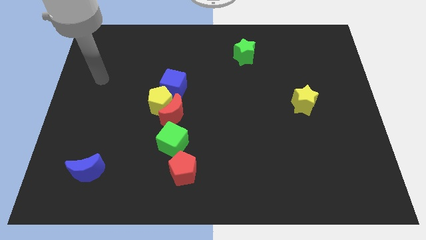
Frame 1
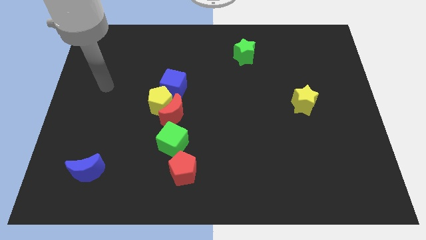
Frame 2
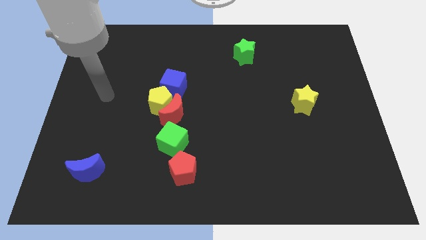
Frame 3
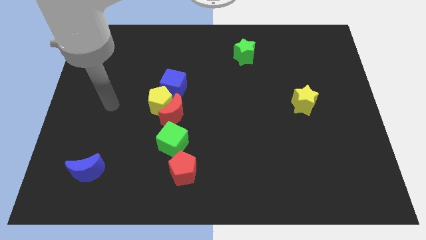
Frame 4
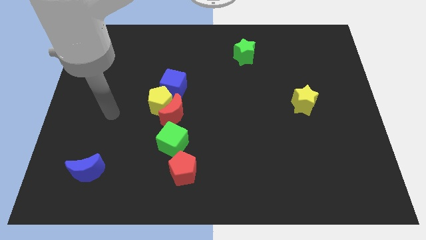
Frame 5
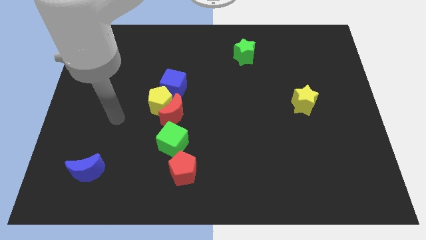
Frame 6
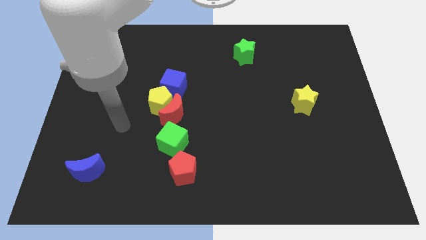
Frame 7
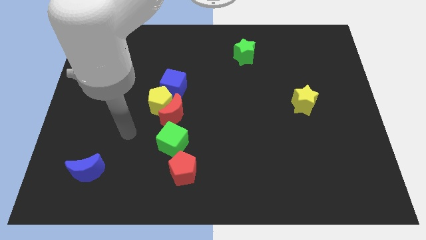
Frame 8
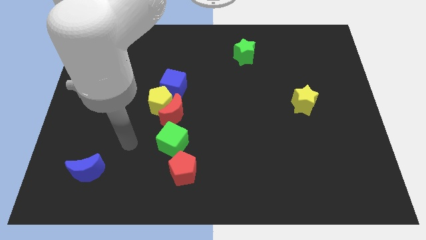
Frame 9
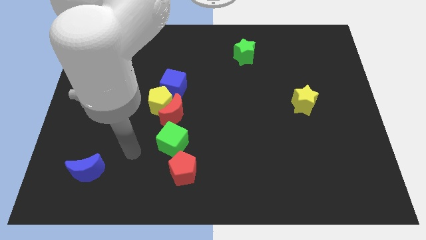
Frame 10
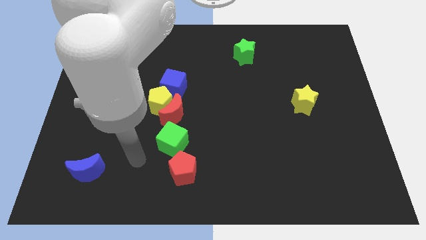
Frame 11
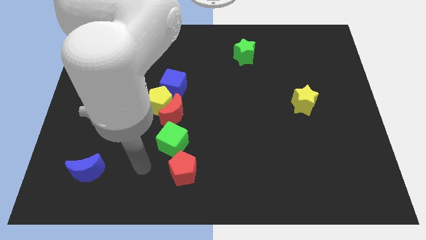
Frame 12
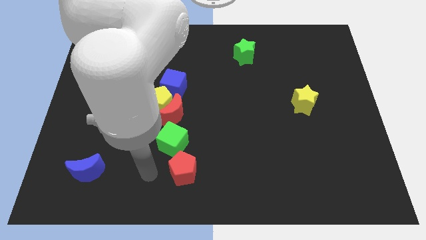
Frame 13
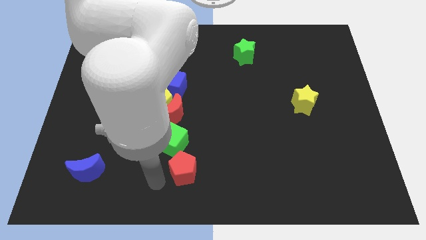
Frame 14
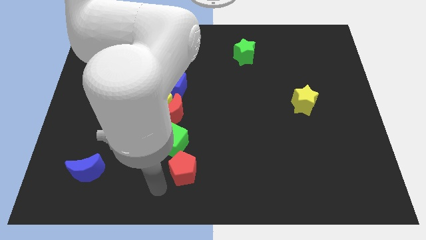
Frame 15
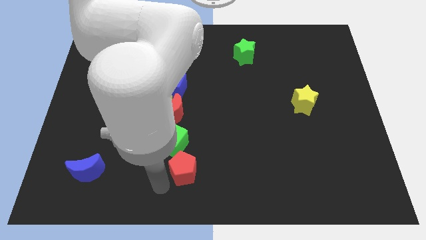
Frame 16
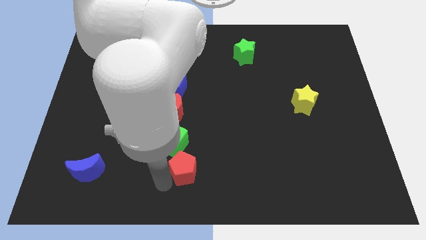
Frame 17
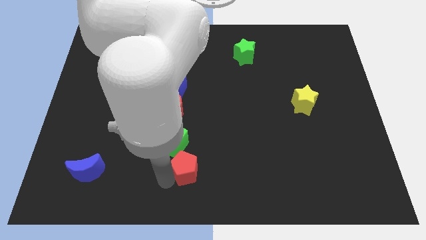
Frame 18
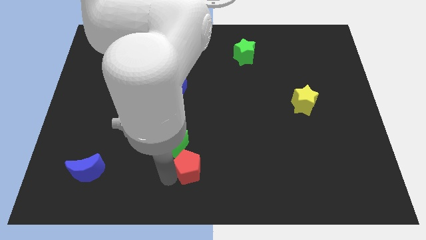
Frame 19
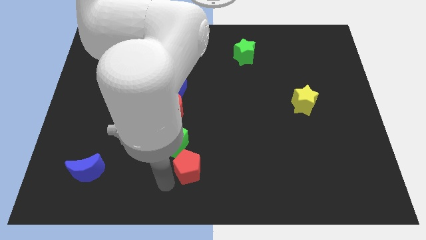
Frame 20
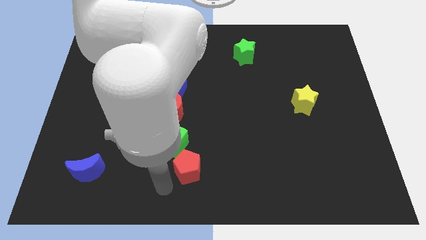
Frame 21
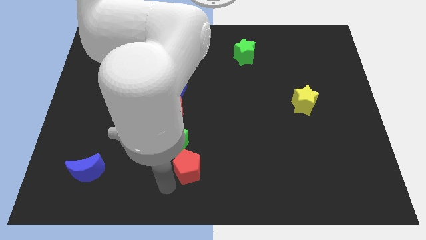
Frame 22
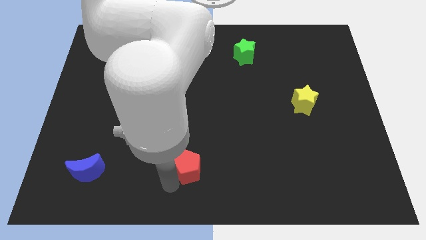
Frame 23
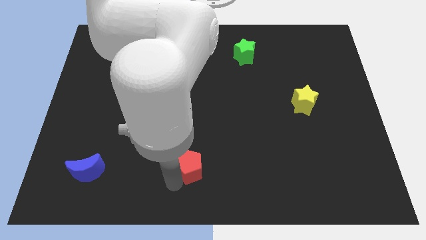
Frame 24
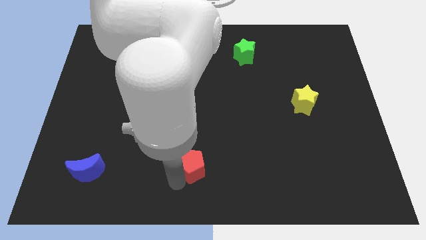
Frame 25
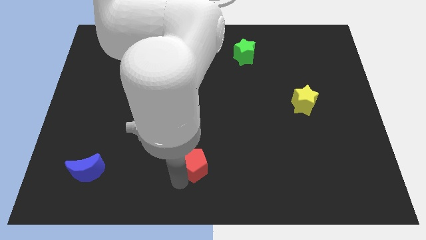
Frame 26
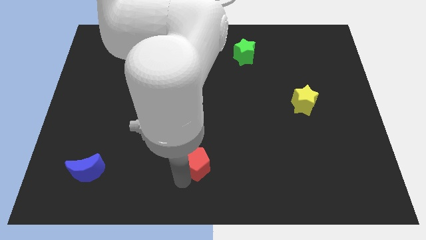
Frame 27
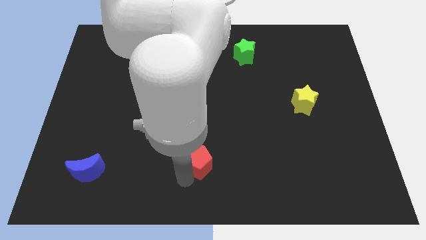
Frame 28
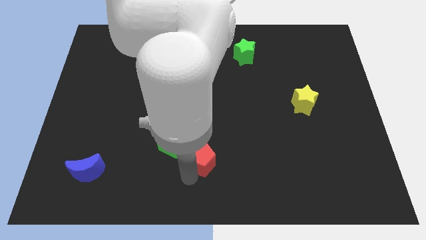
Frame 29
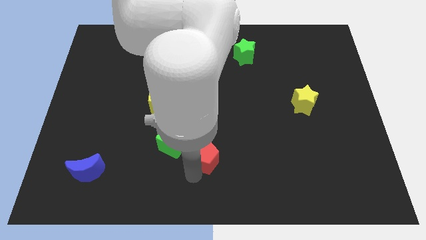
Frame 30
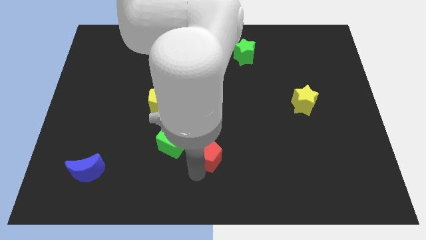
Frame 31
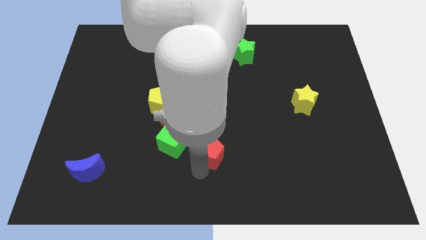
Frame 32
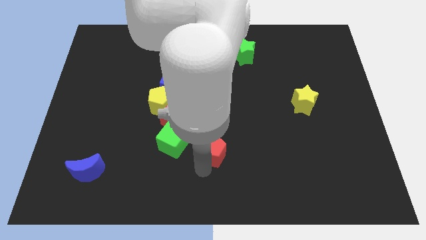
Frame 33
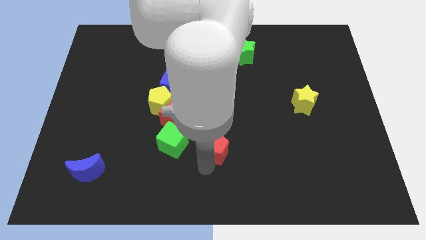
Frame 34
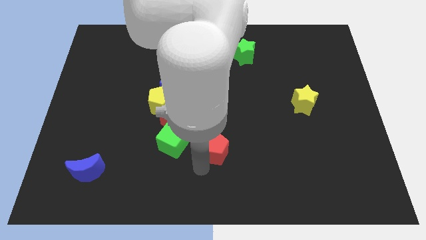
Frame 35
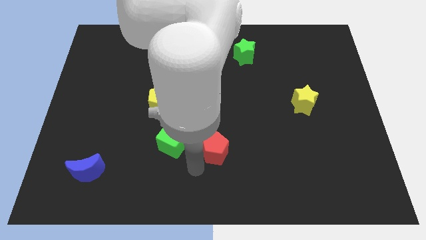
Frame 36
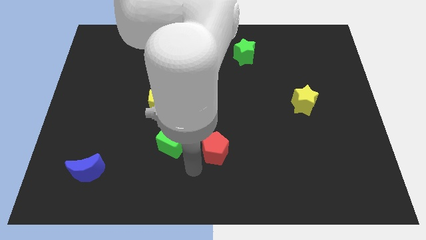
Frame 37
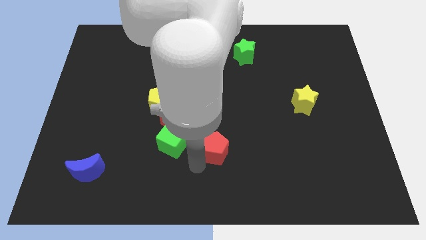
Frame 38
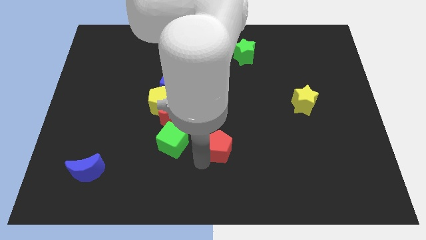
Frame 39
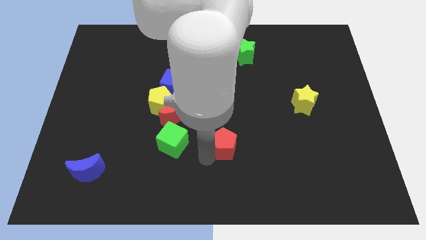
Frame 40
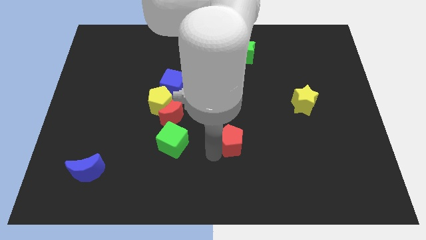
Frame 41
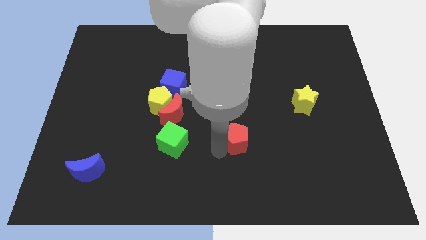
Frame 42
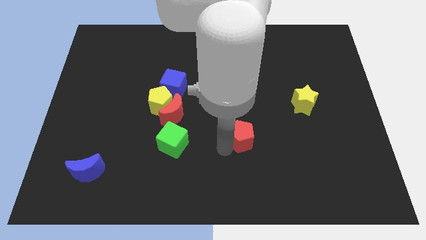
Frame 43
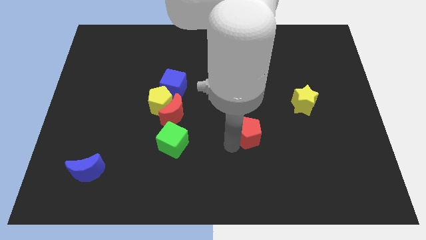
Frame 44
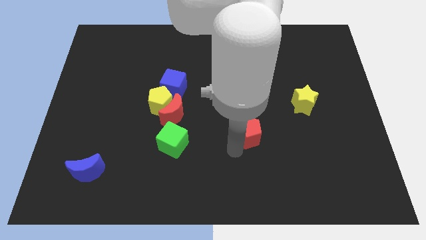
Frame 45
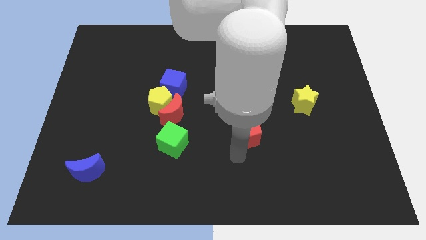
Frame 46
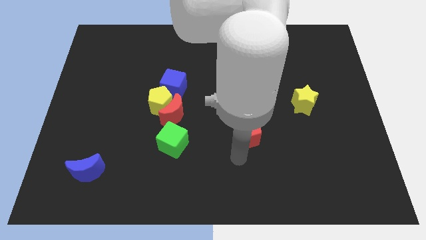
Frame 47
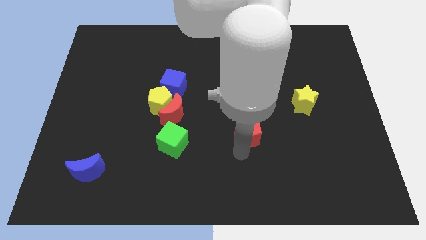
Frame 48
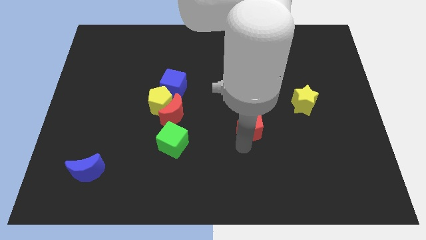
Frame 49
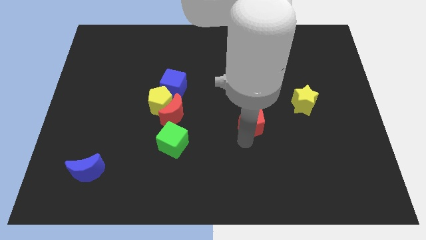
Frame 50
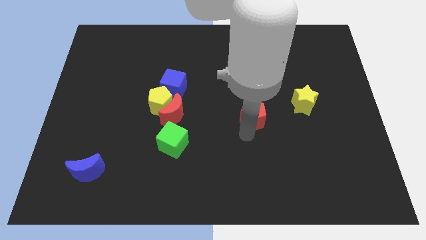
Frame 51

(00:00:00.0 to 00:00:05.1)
push the red pentagon upwards and right diagonally

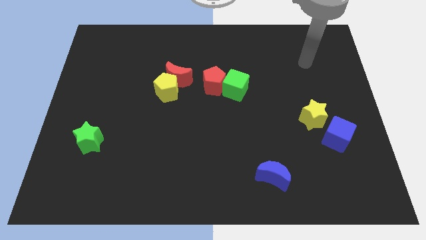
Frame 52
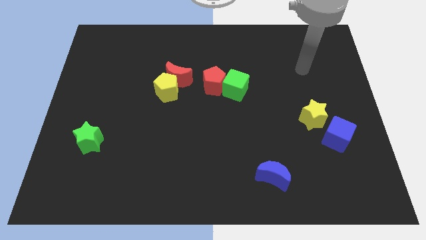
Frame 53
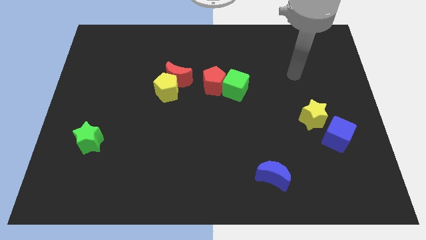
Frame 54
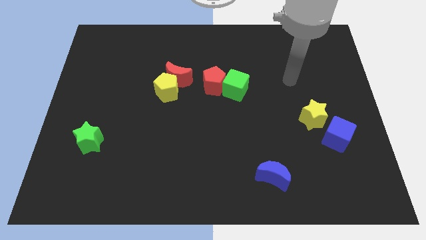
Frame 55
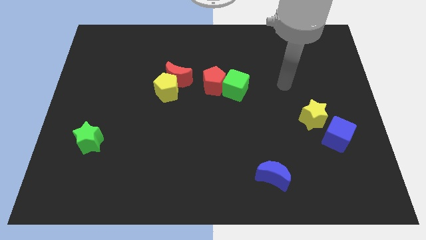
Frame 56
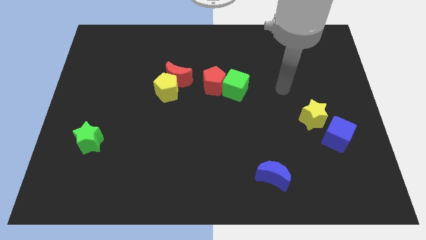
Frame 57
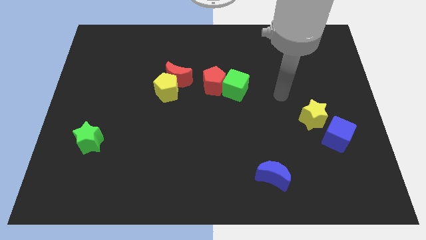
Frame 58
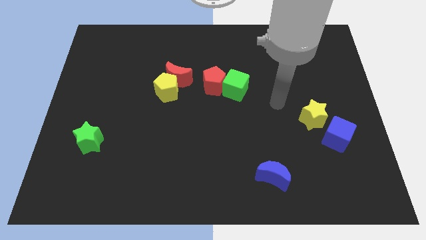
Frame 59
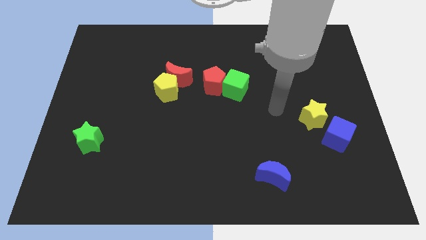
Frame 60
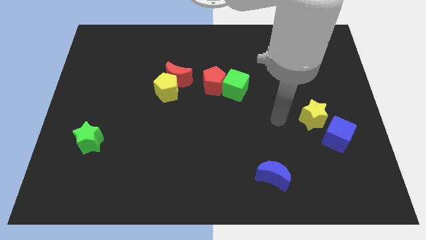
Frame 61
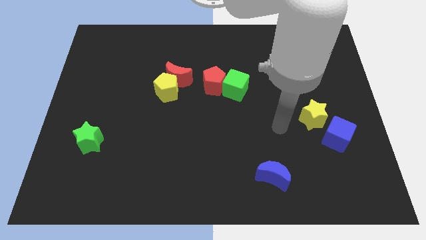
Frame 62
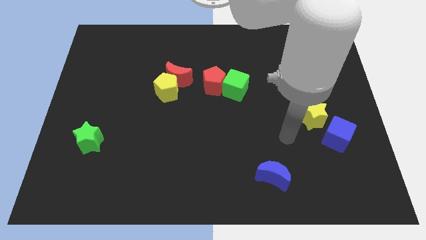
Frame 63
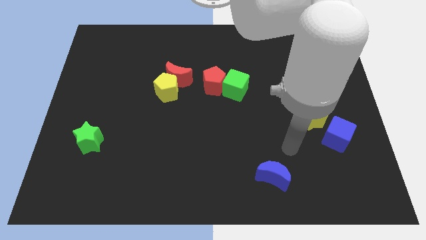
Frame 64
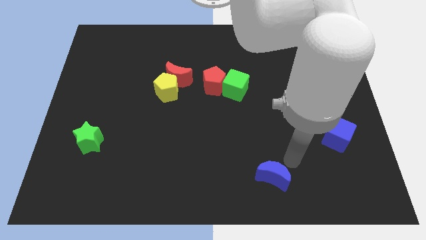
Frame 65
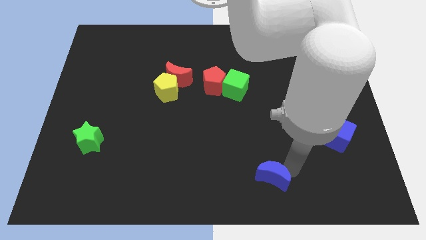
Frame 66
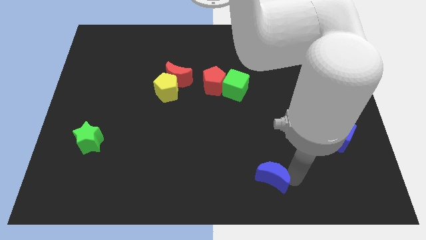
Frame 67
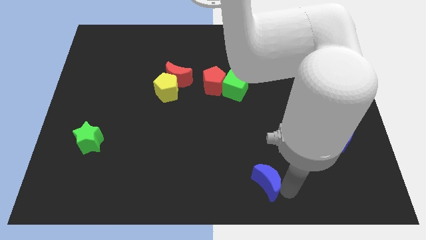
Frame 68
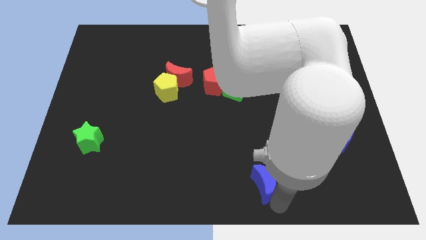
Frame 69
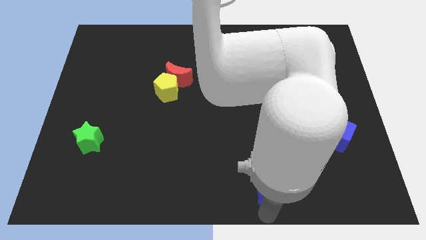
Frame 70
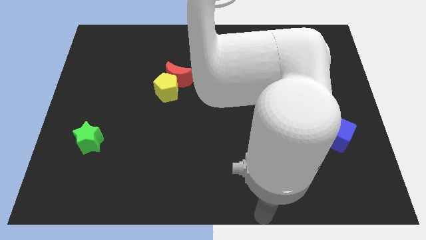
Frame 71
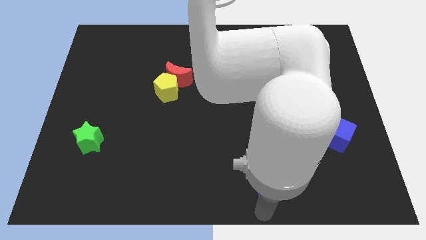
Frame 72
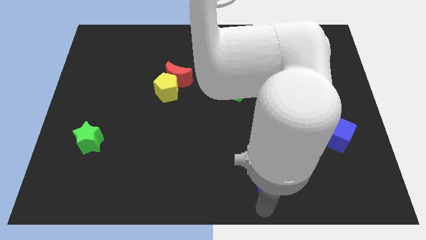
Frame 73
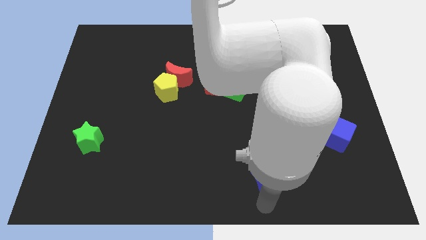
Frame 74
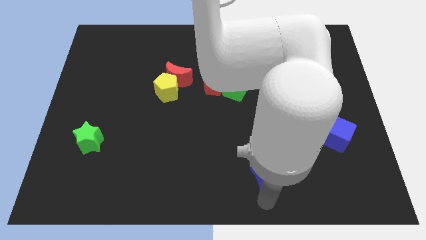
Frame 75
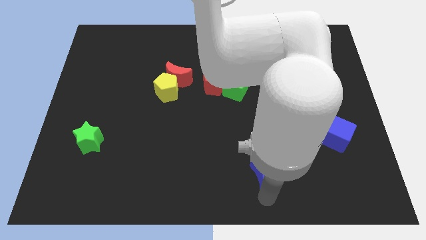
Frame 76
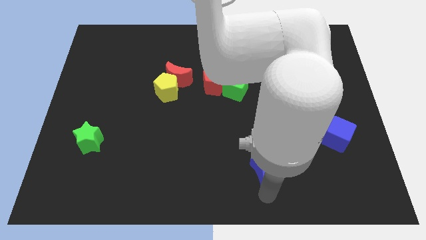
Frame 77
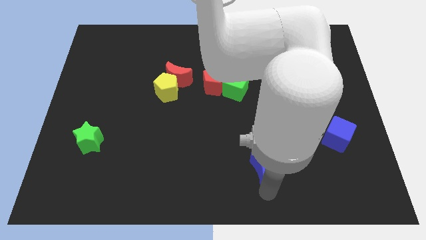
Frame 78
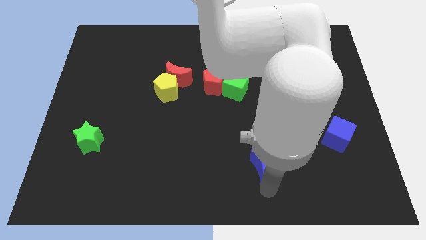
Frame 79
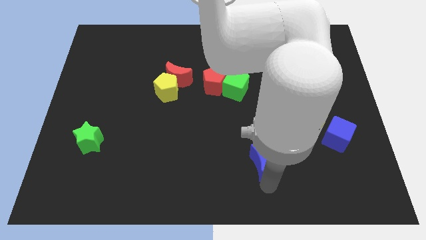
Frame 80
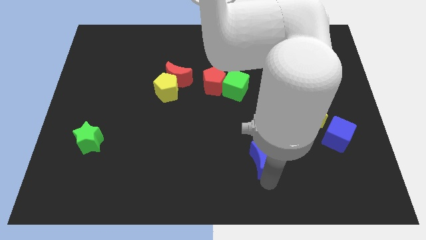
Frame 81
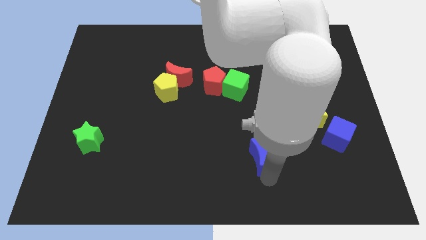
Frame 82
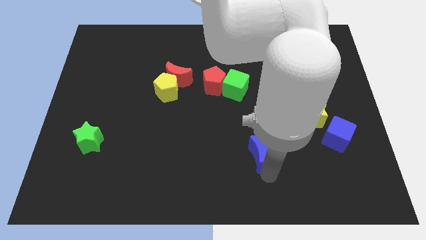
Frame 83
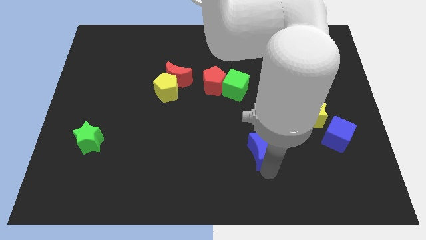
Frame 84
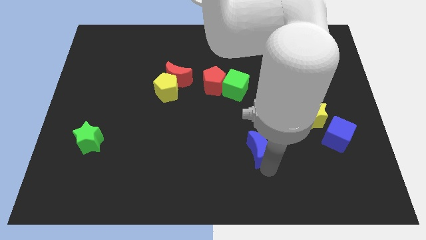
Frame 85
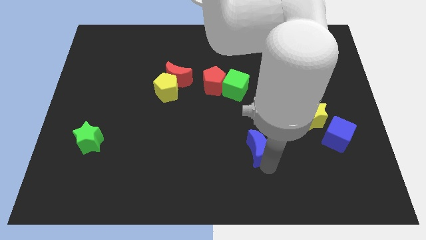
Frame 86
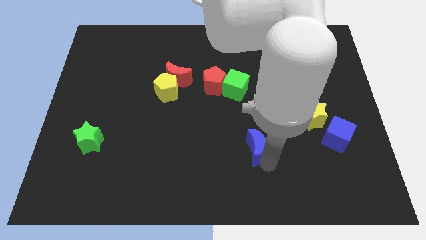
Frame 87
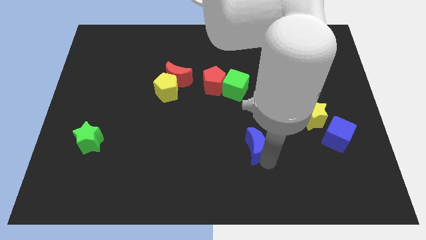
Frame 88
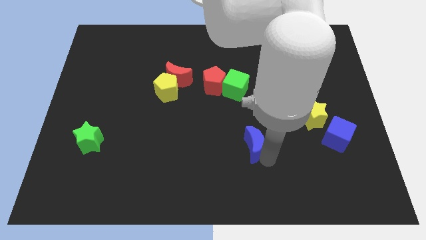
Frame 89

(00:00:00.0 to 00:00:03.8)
slide the blue moon up somewhat
